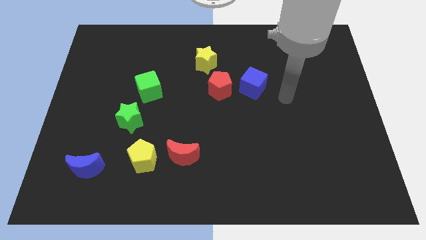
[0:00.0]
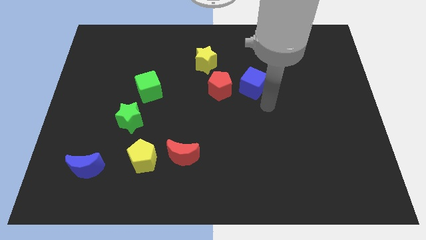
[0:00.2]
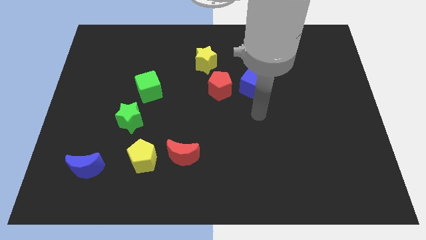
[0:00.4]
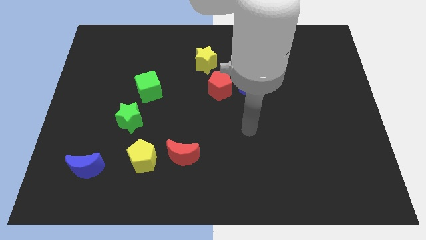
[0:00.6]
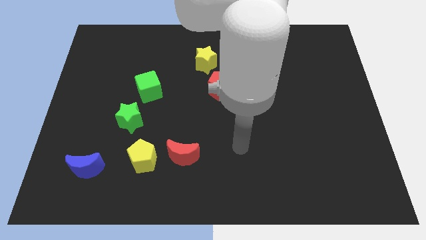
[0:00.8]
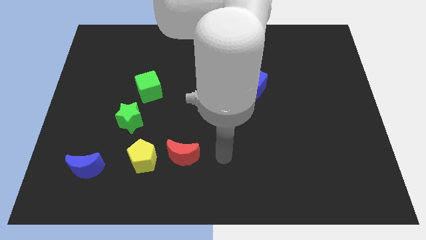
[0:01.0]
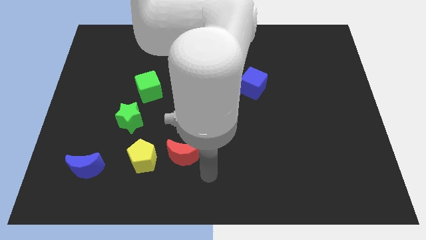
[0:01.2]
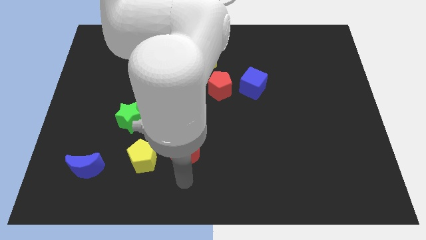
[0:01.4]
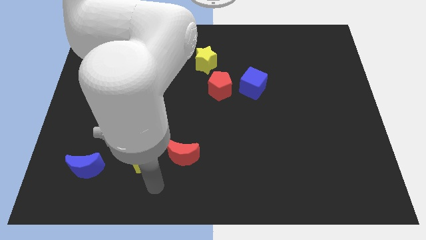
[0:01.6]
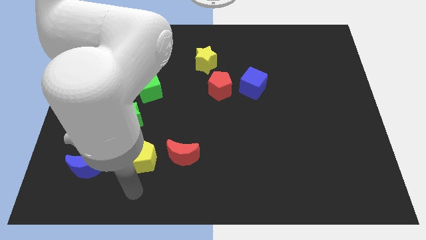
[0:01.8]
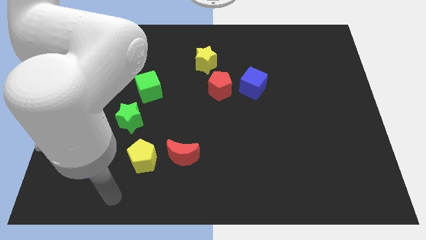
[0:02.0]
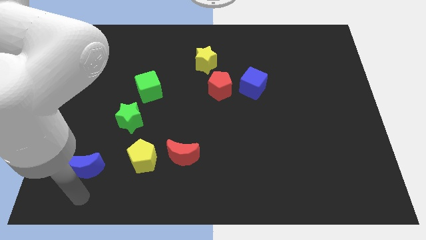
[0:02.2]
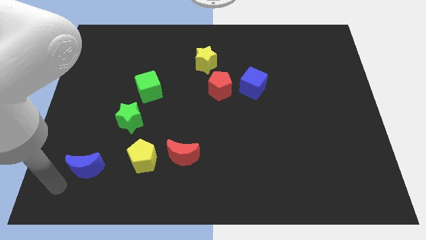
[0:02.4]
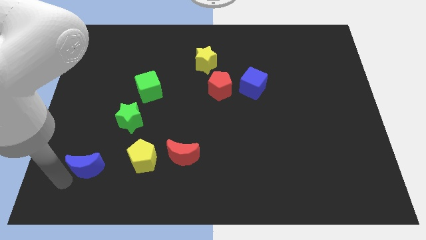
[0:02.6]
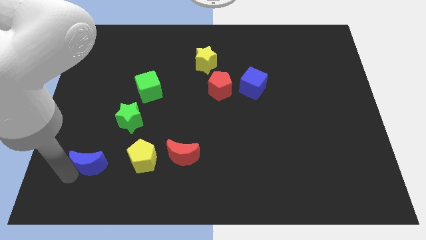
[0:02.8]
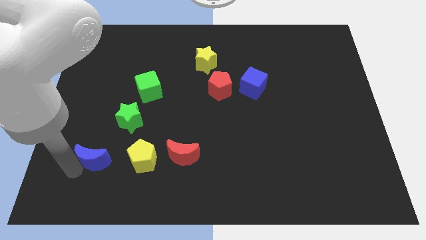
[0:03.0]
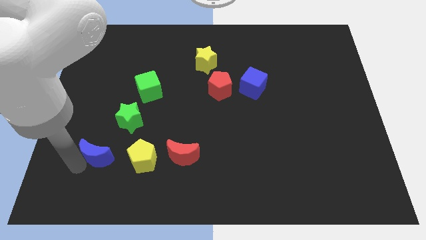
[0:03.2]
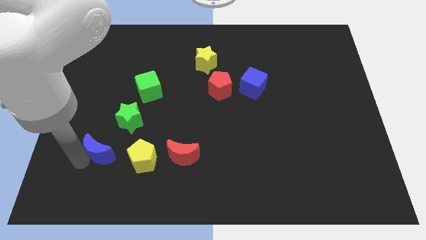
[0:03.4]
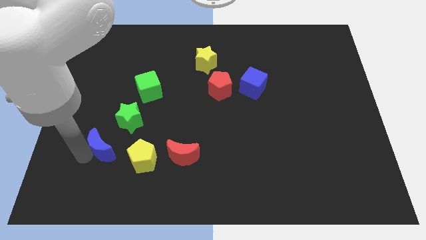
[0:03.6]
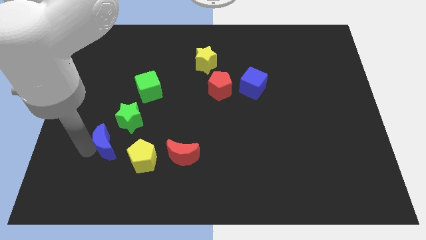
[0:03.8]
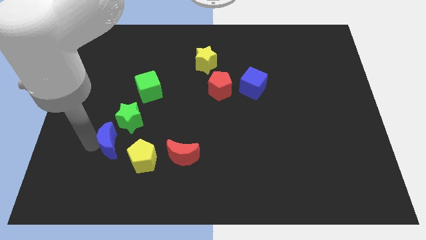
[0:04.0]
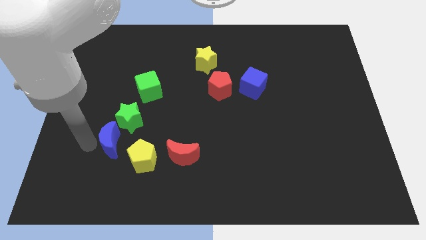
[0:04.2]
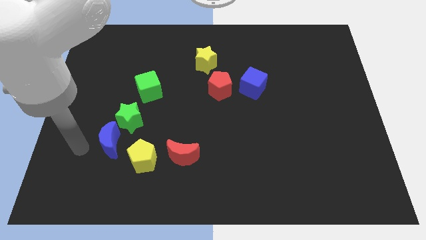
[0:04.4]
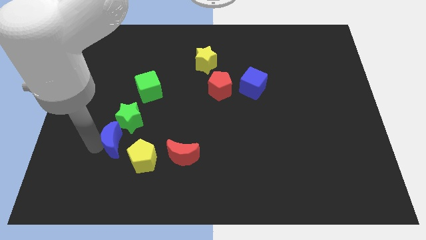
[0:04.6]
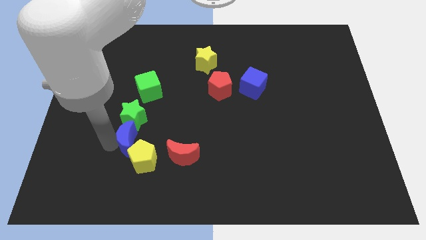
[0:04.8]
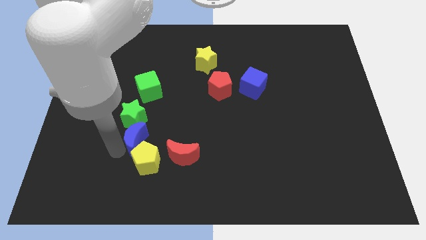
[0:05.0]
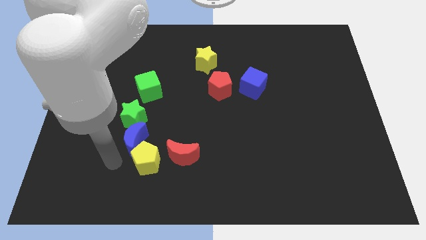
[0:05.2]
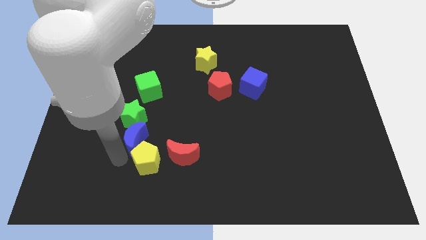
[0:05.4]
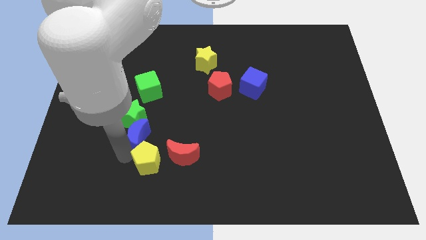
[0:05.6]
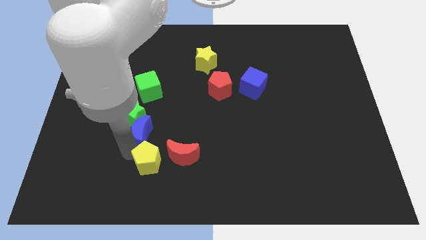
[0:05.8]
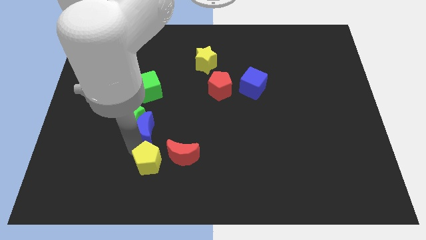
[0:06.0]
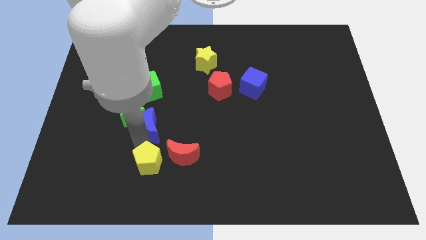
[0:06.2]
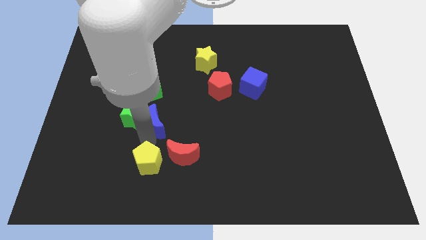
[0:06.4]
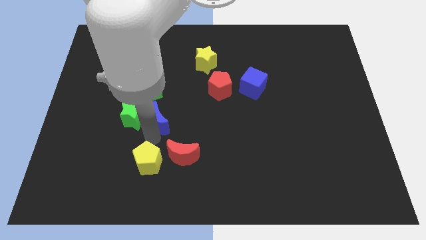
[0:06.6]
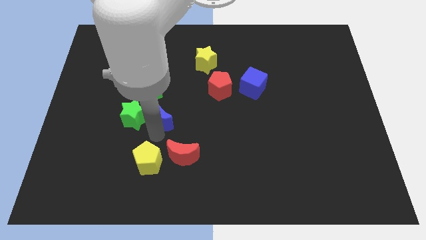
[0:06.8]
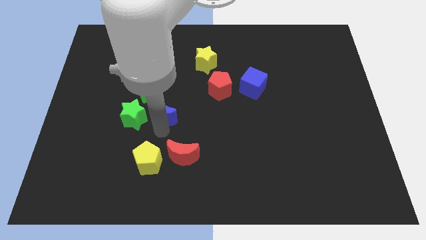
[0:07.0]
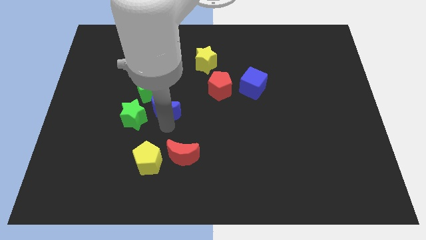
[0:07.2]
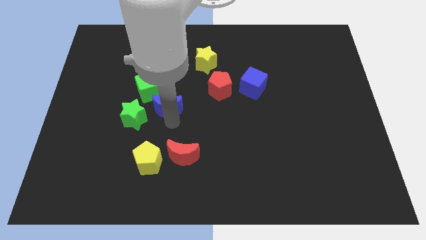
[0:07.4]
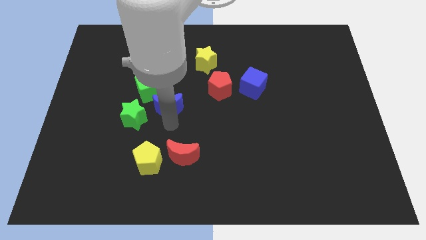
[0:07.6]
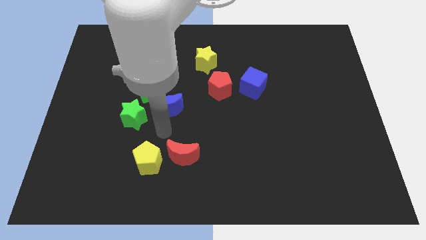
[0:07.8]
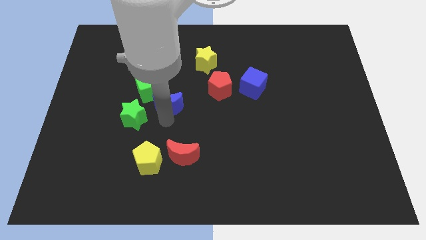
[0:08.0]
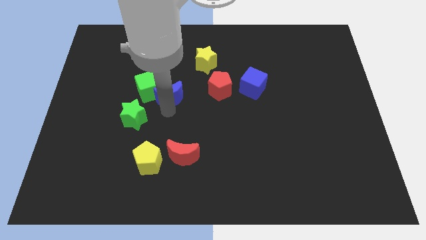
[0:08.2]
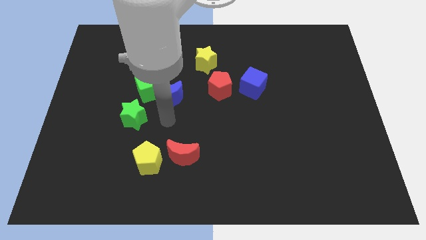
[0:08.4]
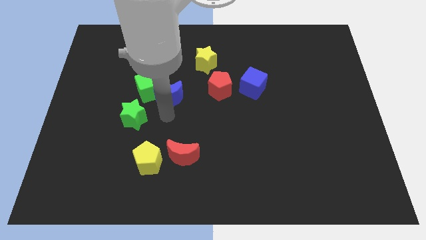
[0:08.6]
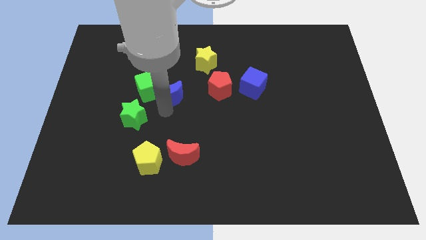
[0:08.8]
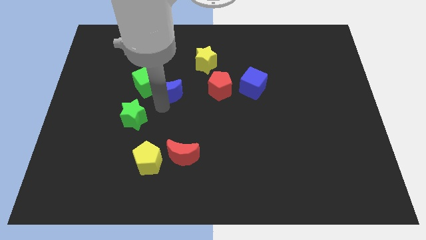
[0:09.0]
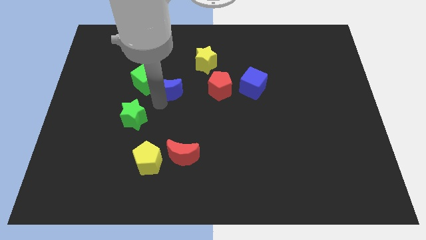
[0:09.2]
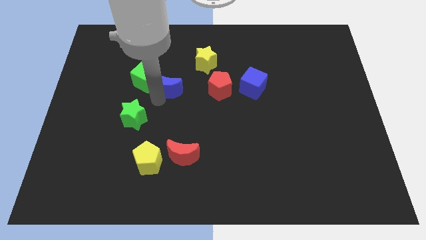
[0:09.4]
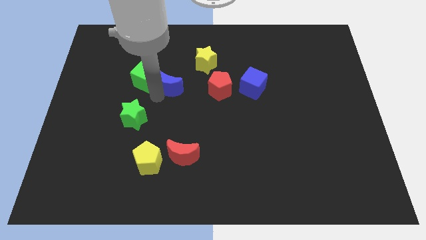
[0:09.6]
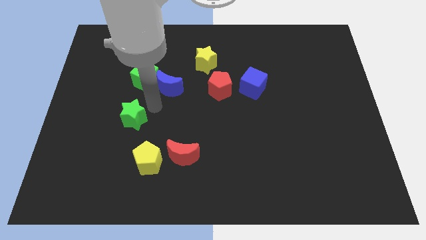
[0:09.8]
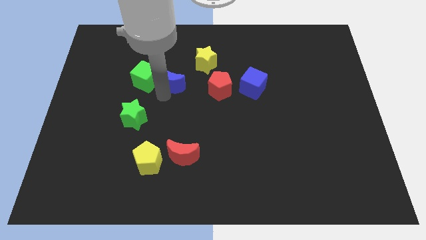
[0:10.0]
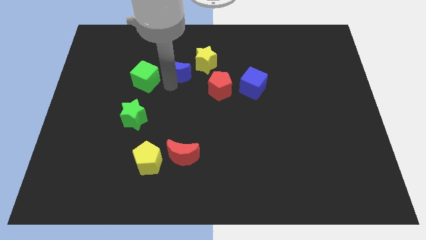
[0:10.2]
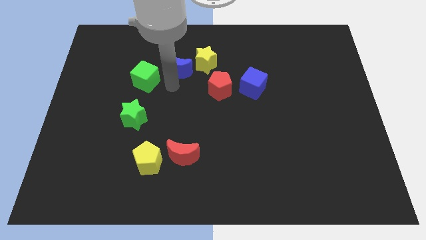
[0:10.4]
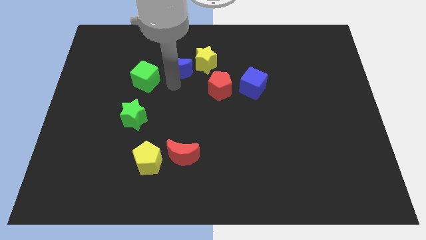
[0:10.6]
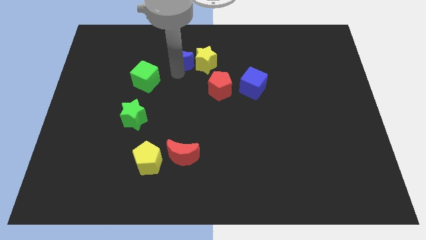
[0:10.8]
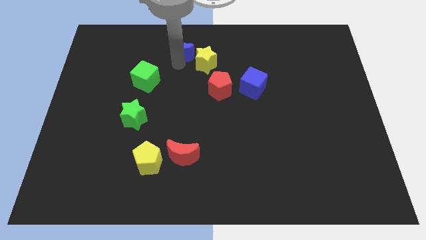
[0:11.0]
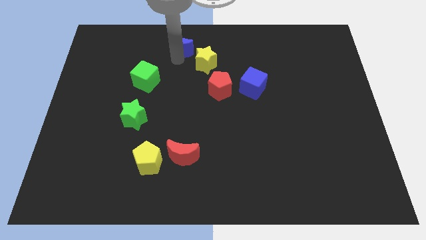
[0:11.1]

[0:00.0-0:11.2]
slide the blue moon to the towards your base
